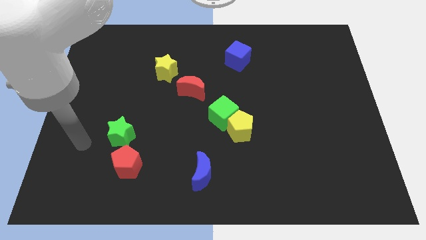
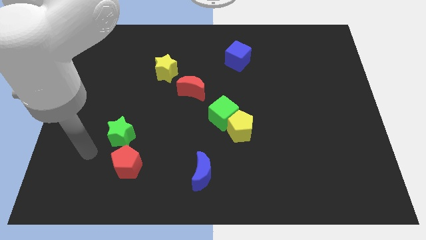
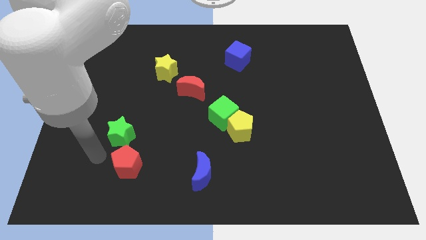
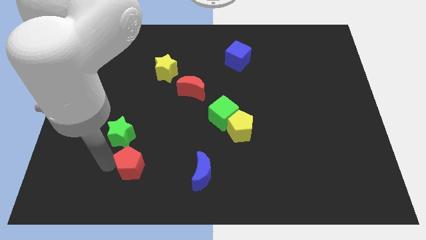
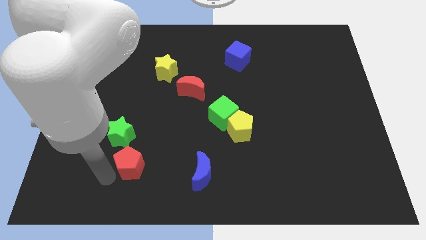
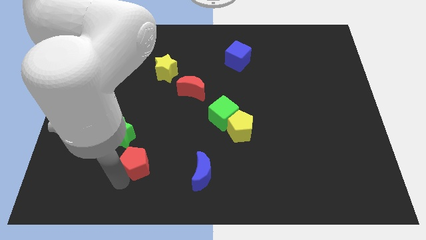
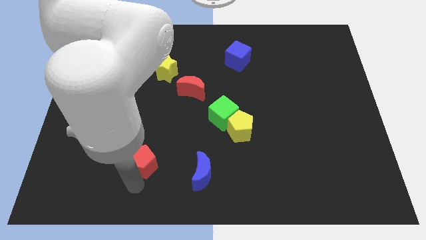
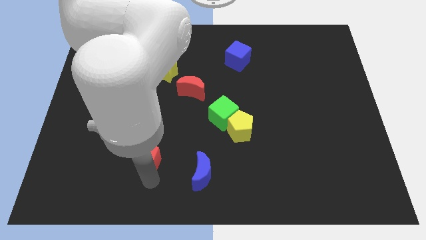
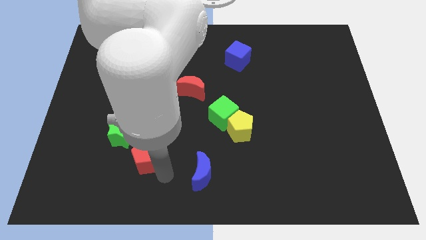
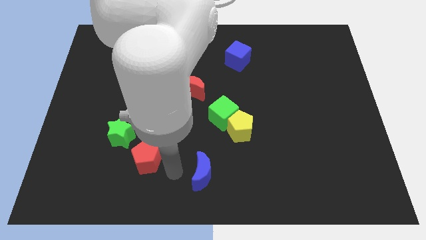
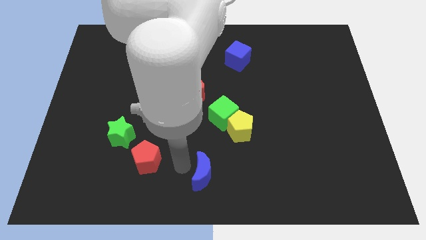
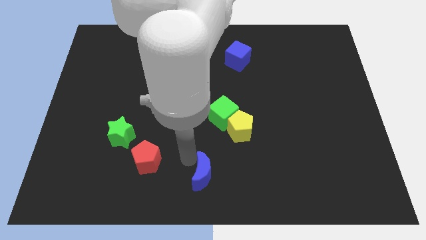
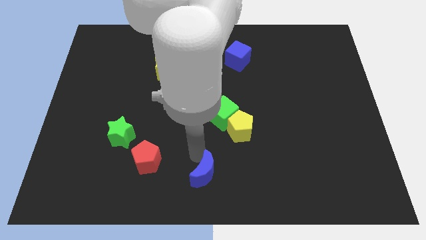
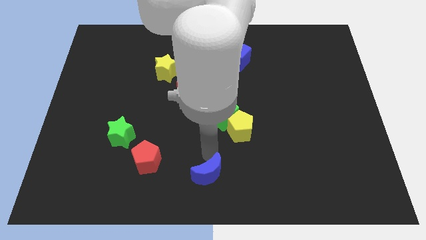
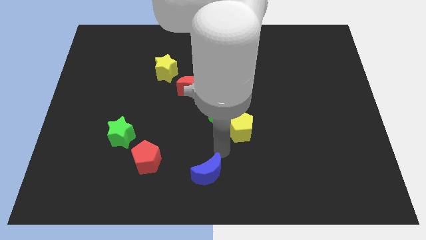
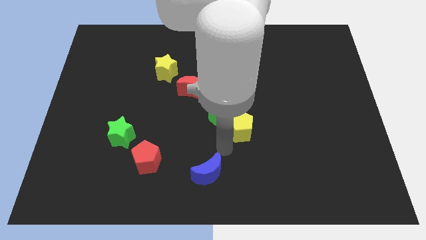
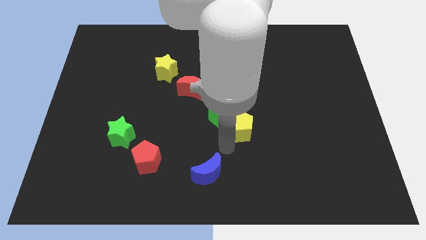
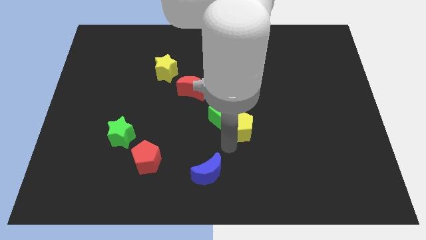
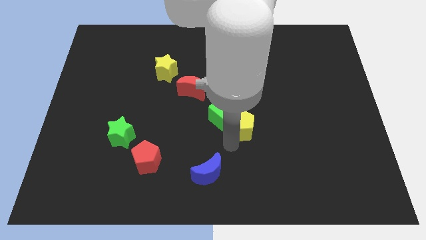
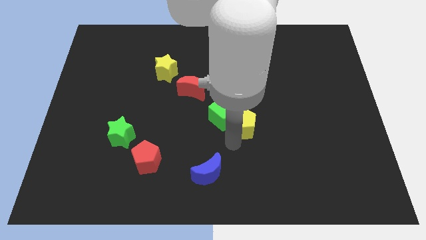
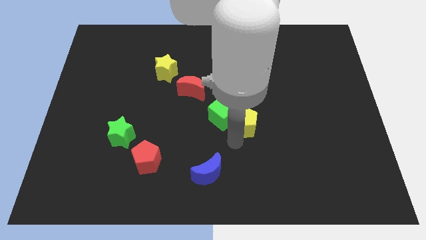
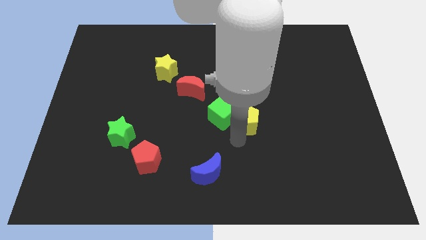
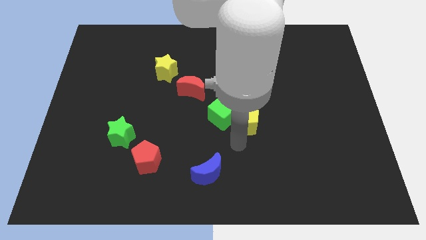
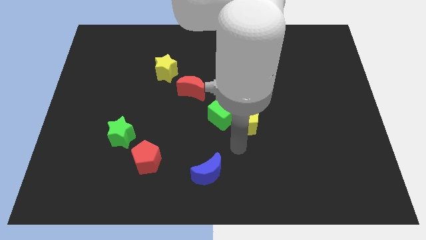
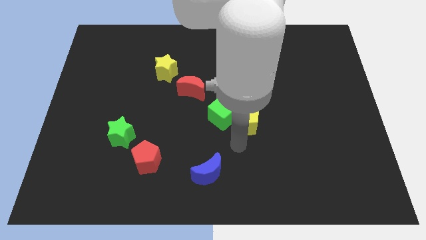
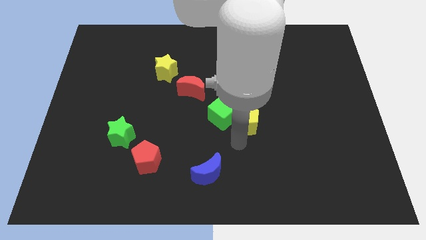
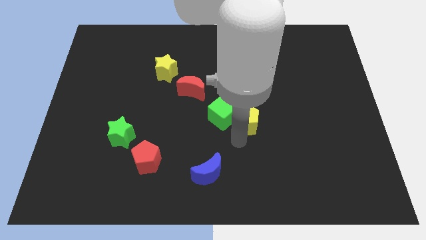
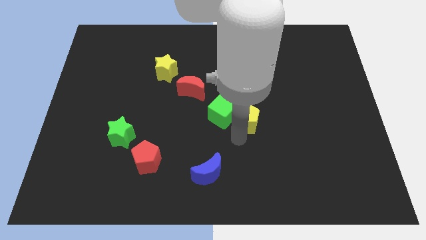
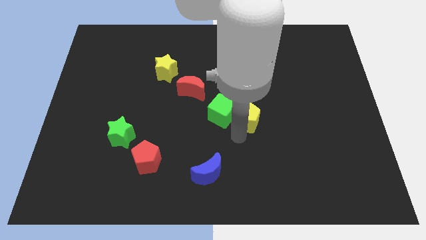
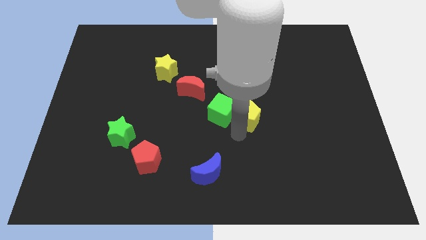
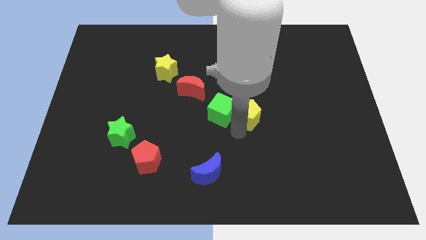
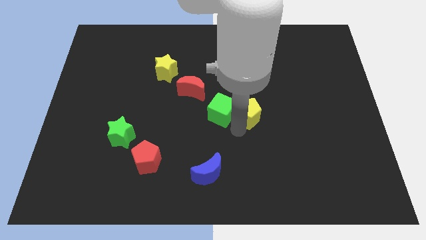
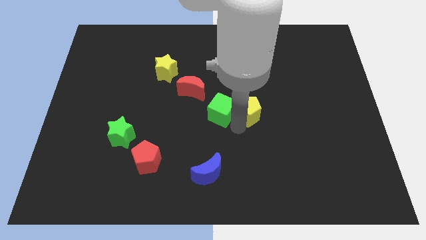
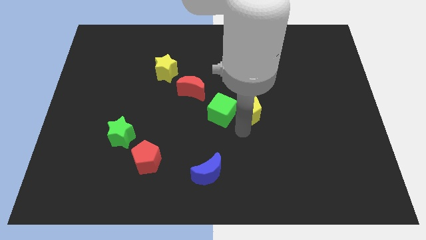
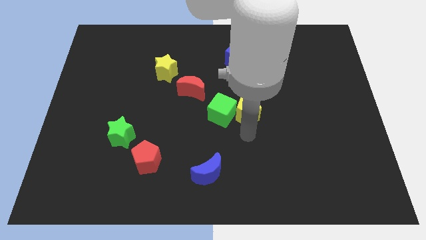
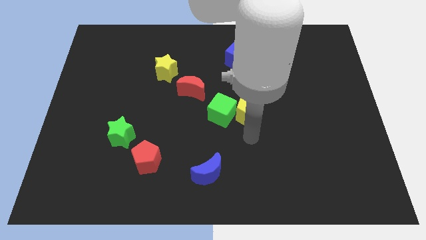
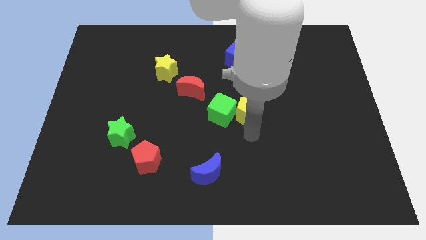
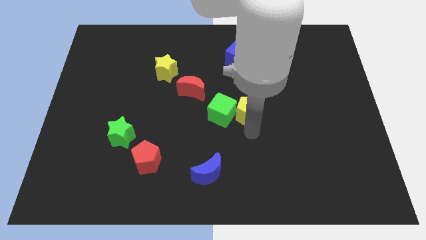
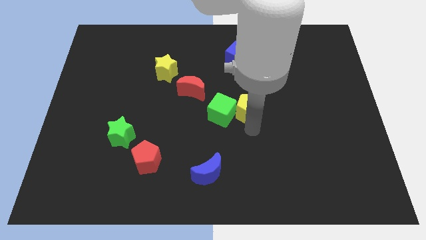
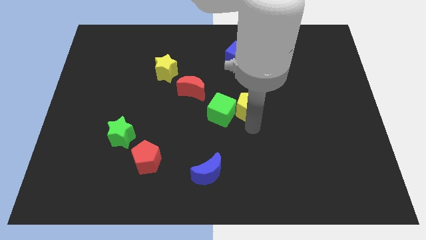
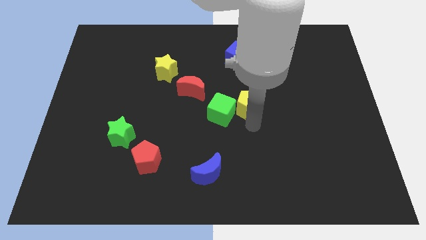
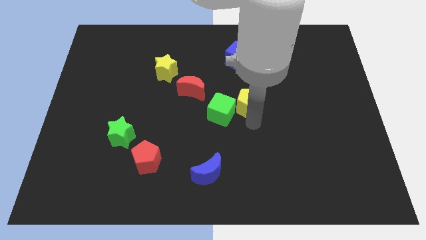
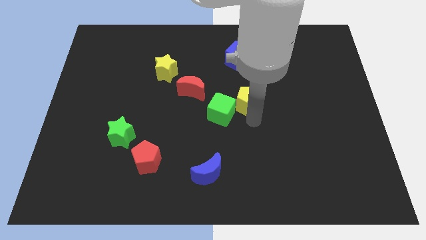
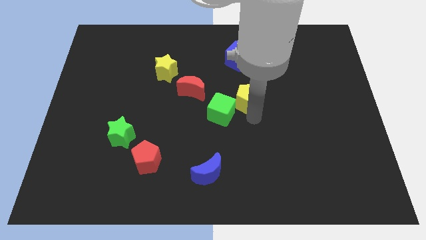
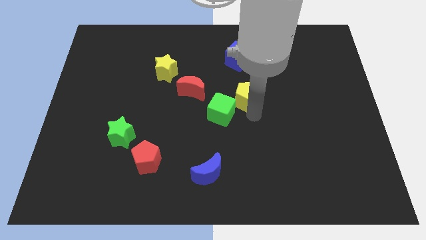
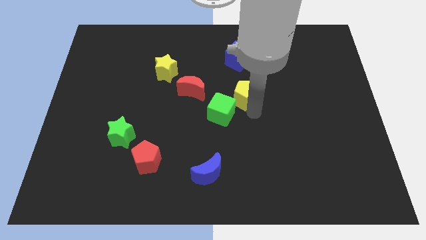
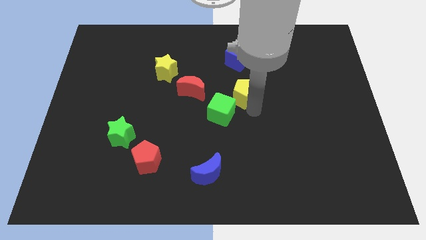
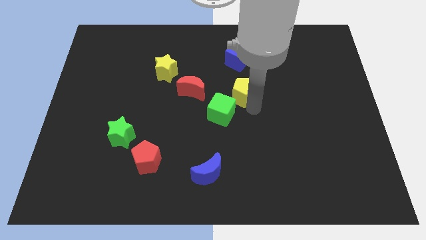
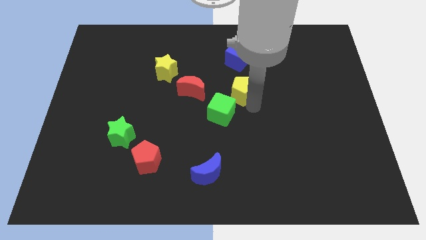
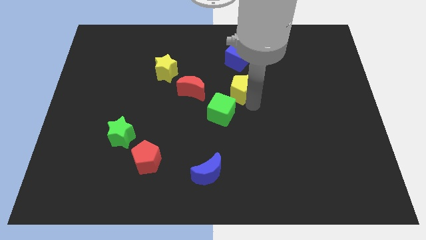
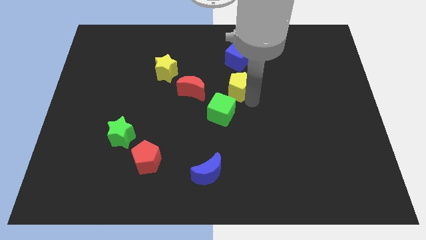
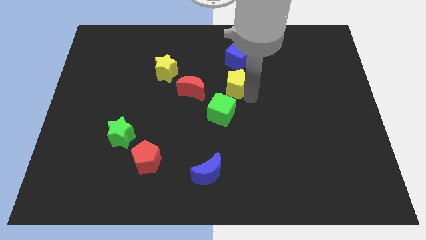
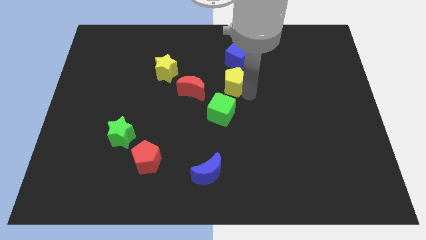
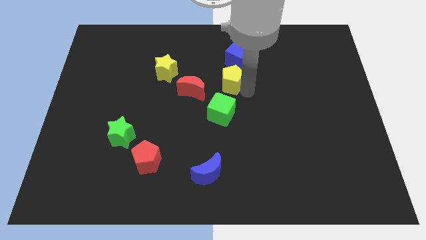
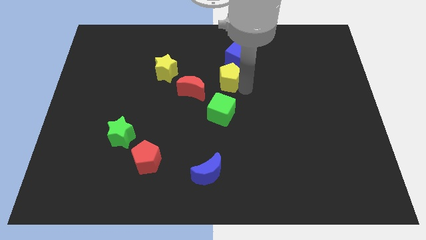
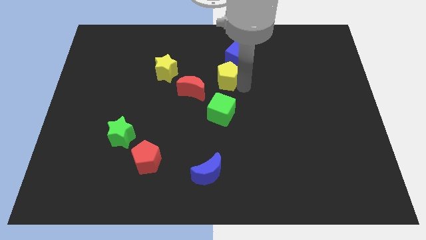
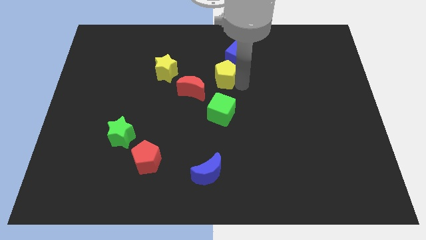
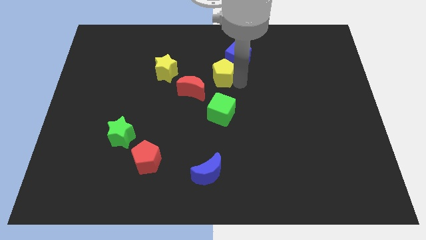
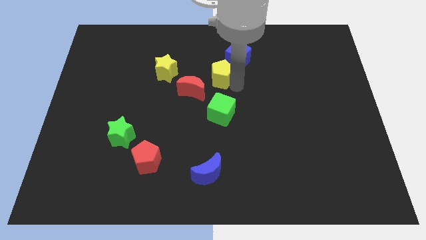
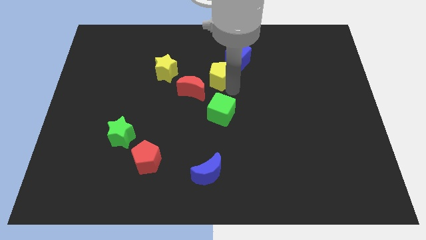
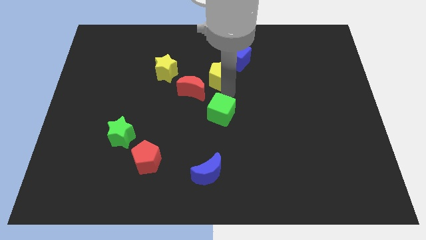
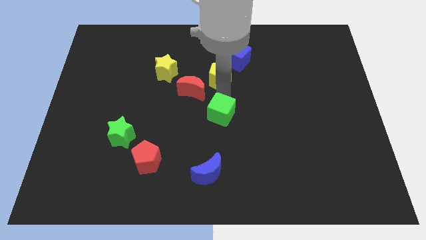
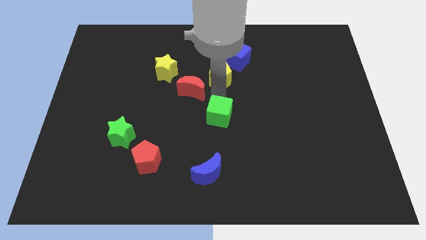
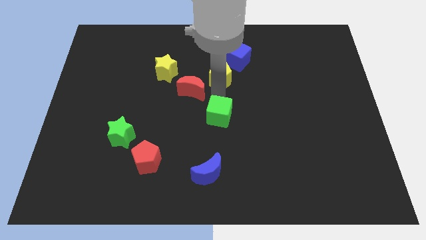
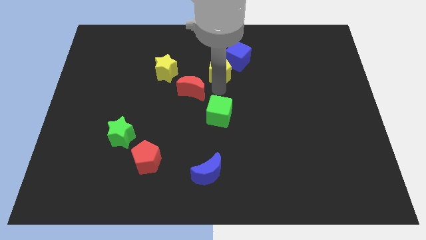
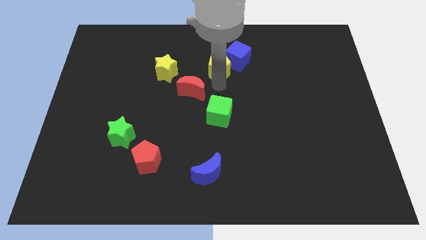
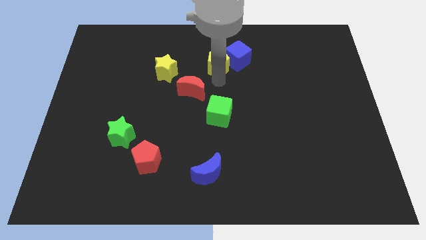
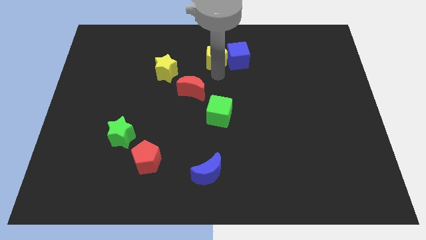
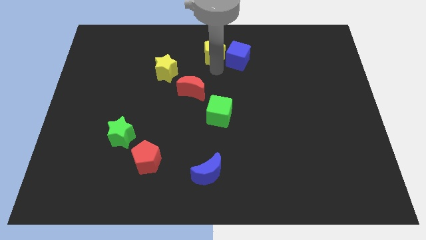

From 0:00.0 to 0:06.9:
slide the yellow pentagon to the top
